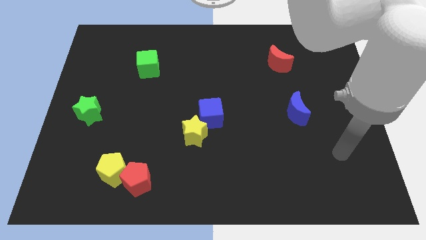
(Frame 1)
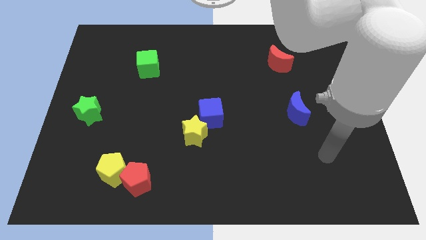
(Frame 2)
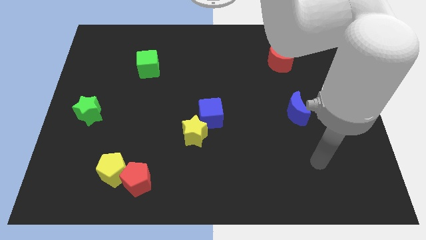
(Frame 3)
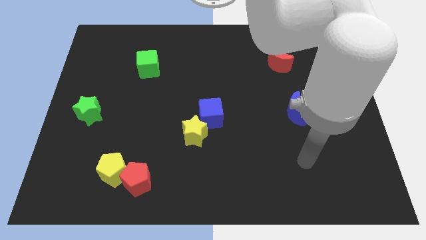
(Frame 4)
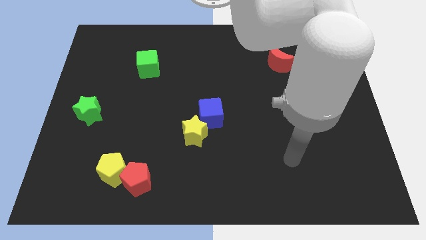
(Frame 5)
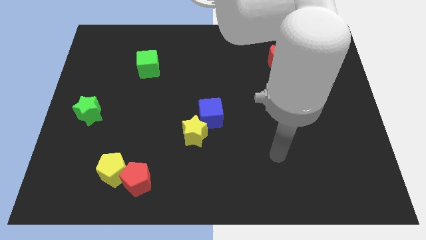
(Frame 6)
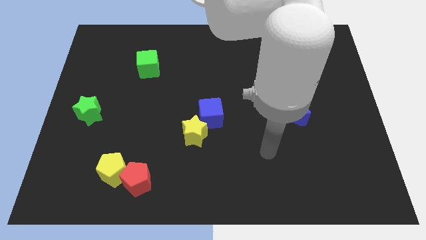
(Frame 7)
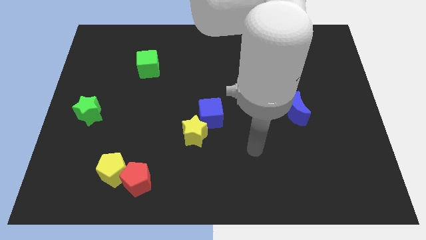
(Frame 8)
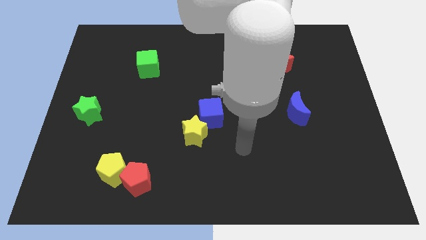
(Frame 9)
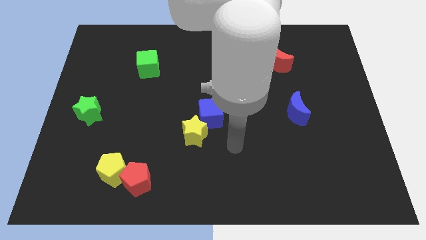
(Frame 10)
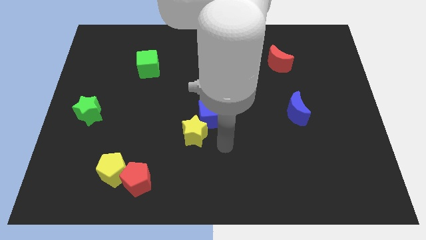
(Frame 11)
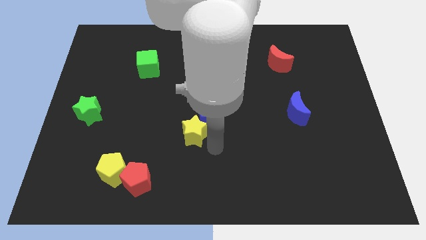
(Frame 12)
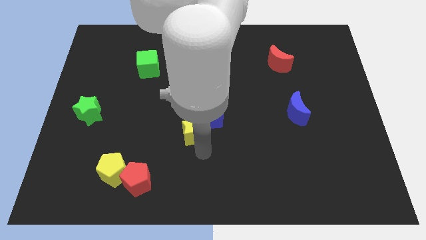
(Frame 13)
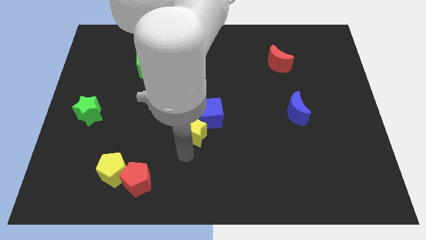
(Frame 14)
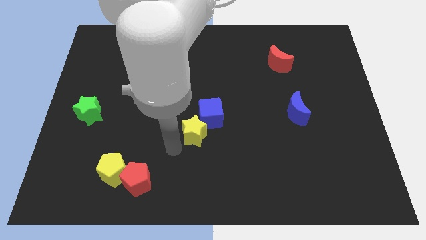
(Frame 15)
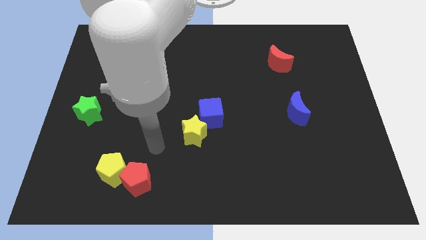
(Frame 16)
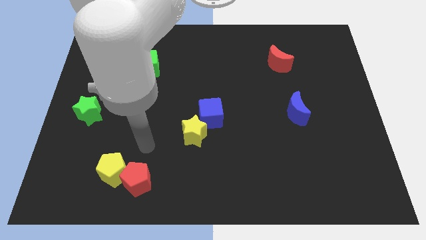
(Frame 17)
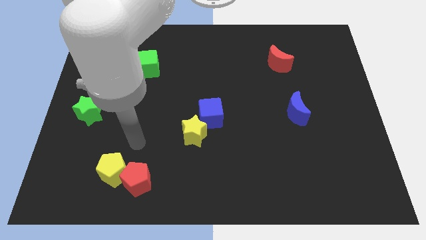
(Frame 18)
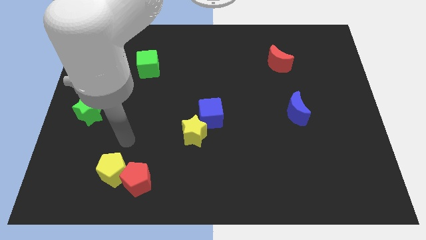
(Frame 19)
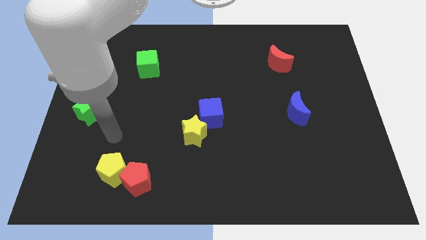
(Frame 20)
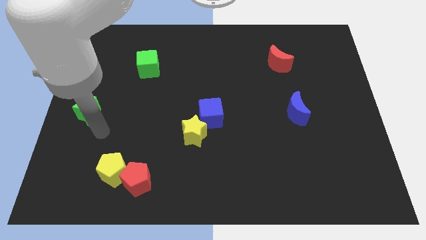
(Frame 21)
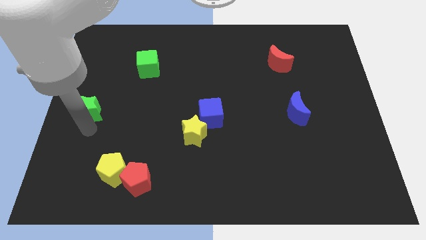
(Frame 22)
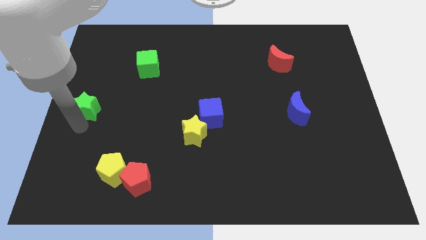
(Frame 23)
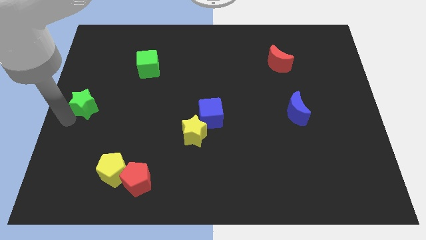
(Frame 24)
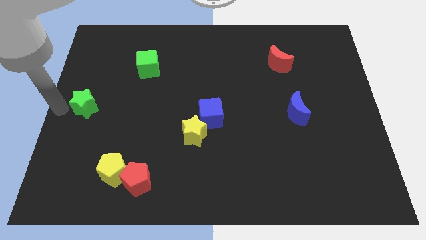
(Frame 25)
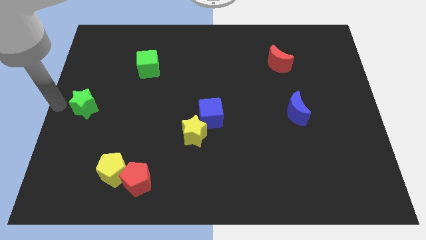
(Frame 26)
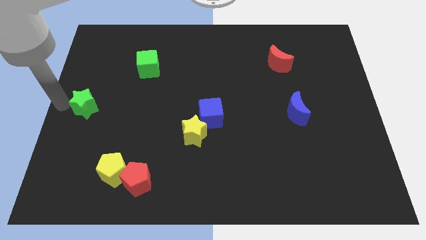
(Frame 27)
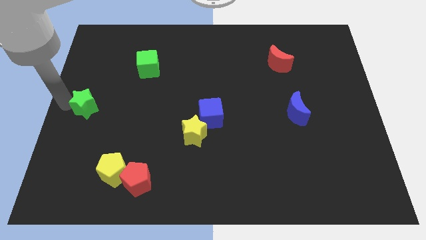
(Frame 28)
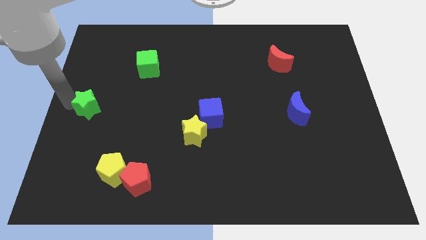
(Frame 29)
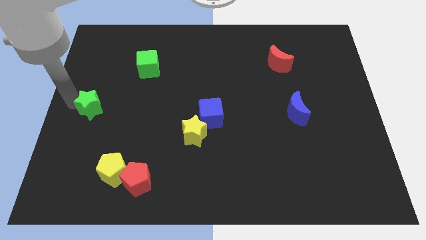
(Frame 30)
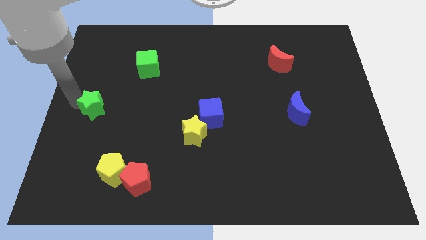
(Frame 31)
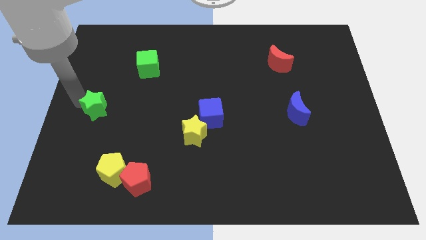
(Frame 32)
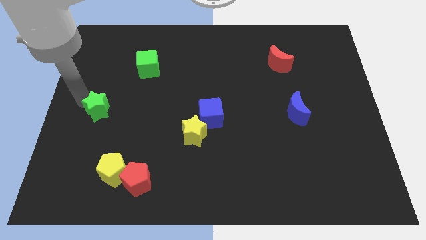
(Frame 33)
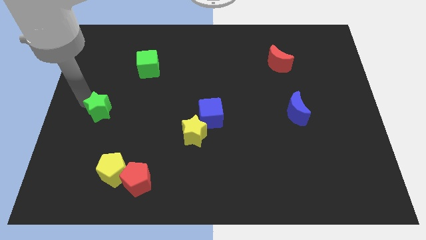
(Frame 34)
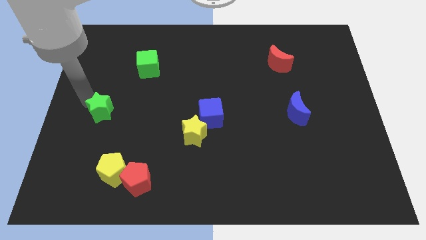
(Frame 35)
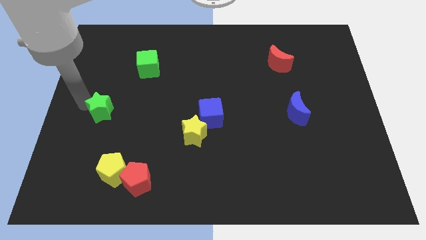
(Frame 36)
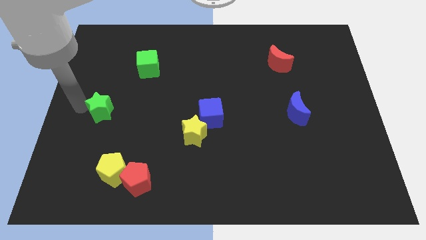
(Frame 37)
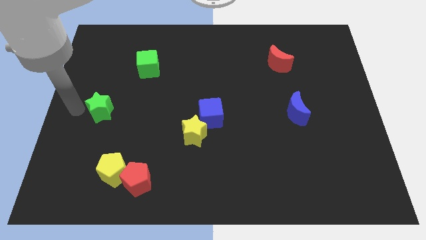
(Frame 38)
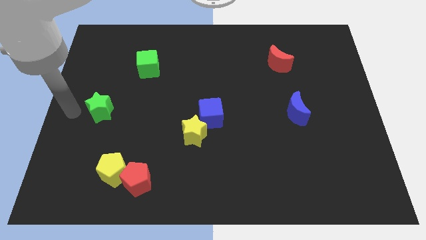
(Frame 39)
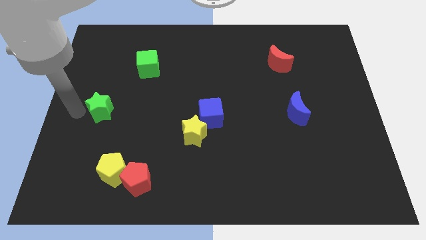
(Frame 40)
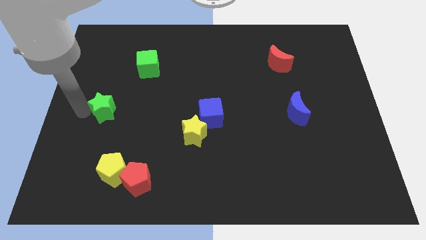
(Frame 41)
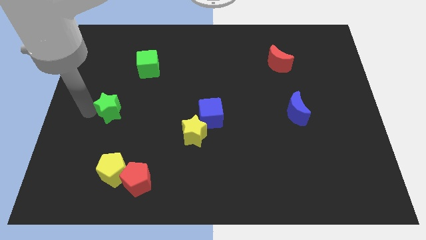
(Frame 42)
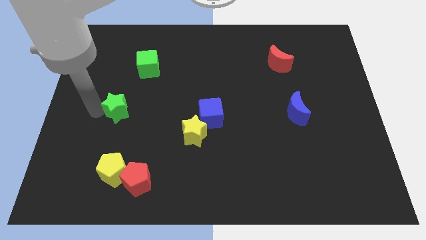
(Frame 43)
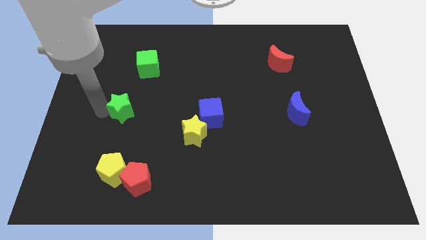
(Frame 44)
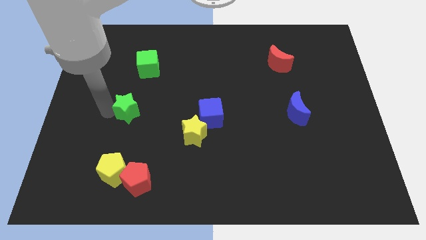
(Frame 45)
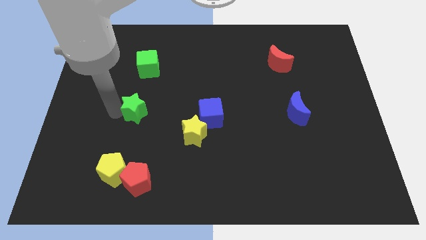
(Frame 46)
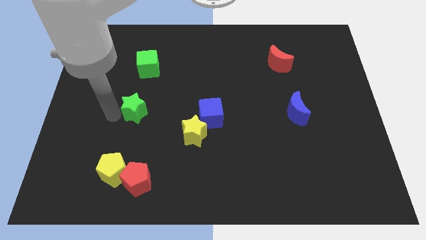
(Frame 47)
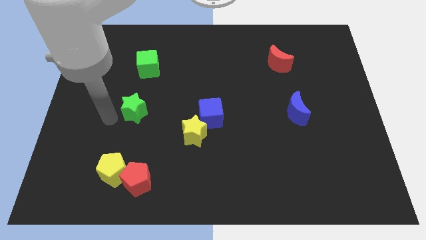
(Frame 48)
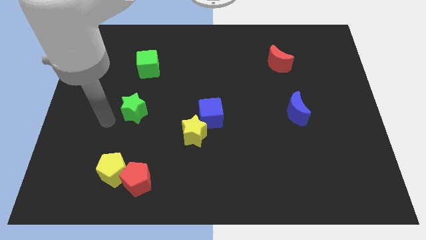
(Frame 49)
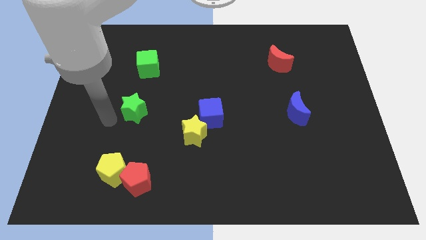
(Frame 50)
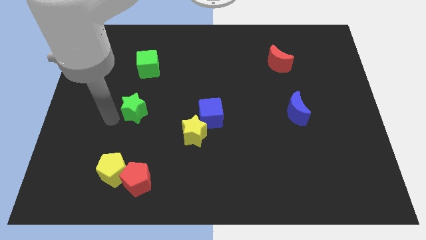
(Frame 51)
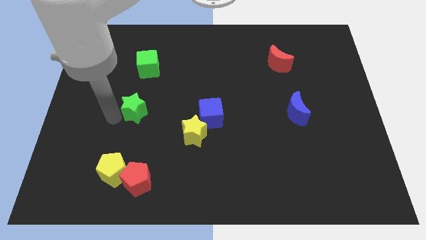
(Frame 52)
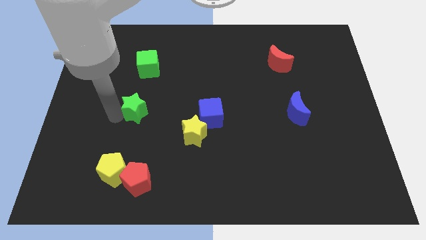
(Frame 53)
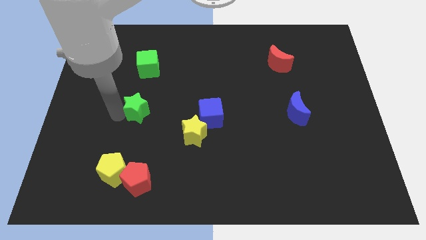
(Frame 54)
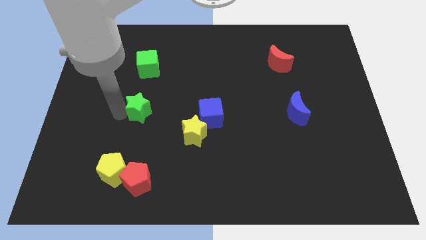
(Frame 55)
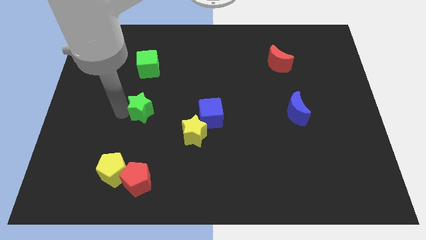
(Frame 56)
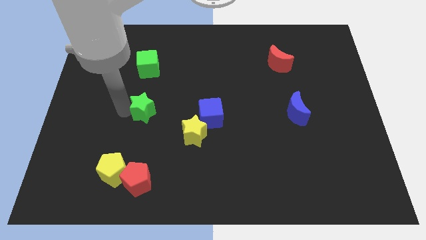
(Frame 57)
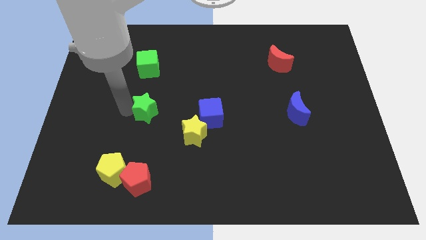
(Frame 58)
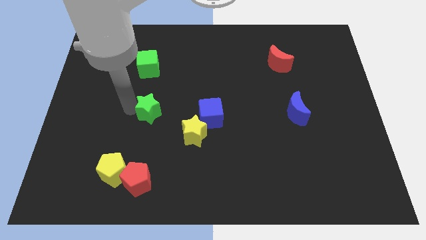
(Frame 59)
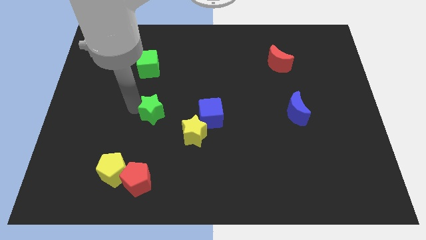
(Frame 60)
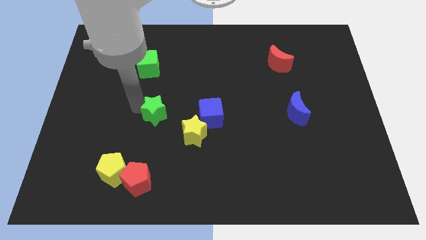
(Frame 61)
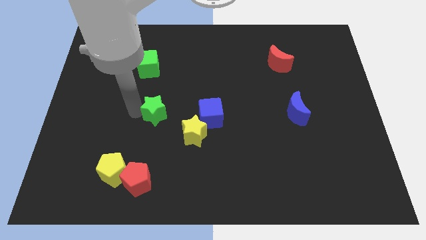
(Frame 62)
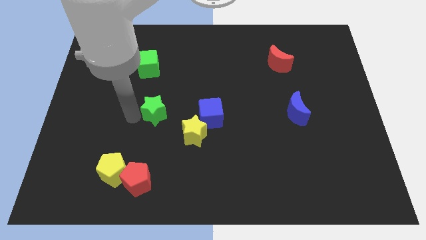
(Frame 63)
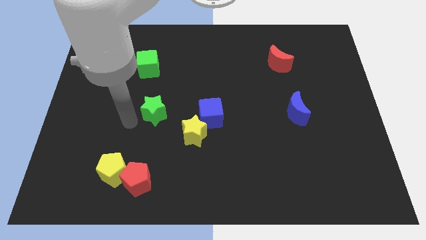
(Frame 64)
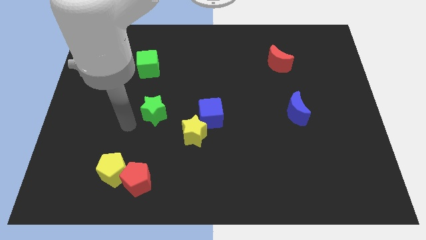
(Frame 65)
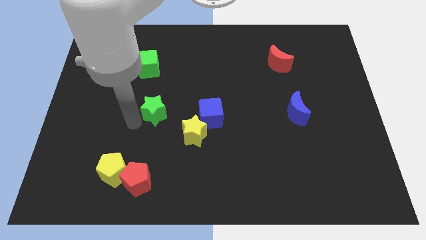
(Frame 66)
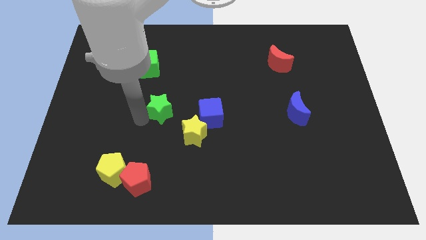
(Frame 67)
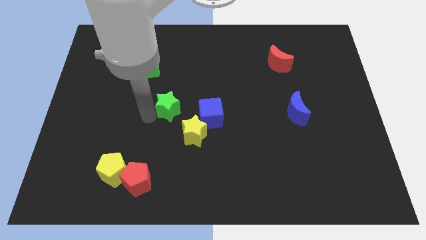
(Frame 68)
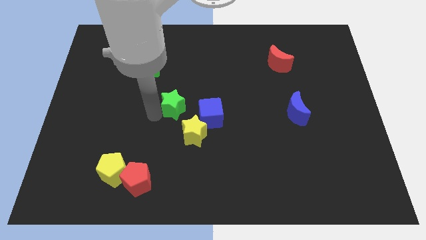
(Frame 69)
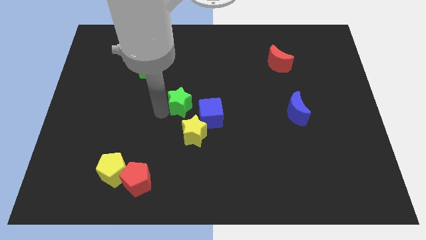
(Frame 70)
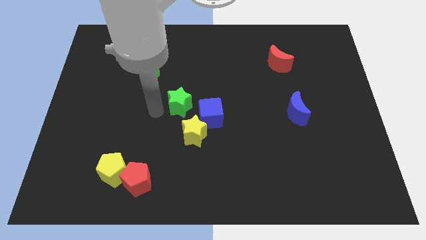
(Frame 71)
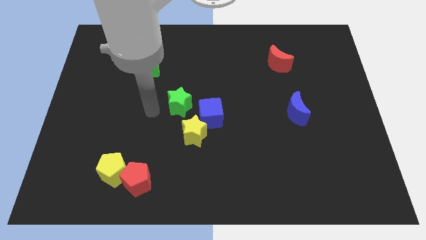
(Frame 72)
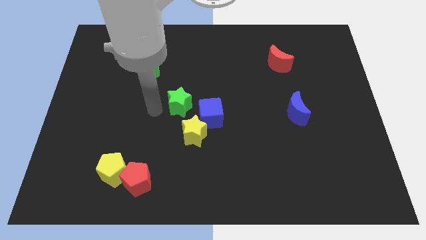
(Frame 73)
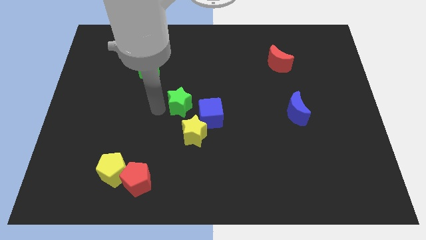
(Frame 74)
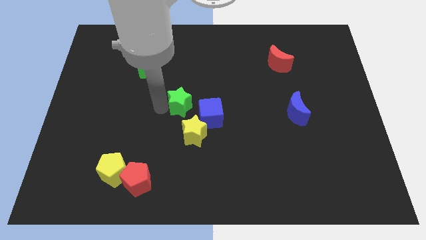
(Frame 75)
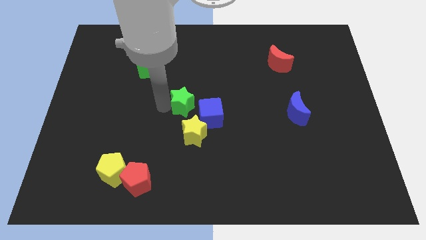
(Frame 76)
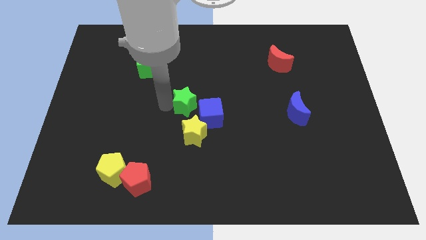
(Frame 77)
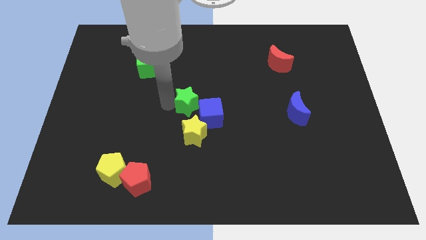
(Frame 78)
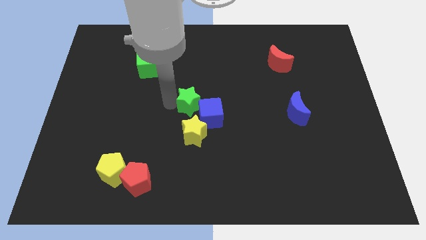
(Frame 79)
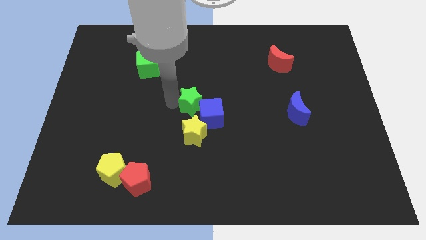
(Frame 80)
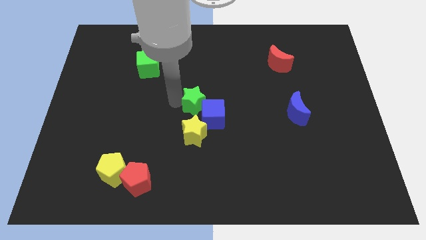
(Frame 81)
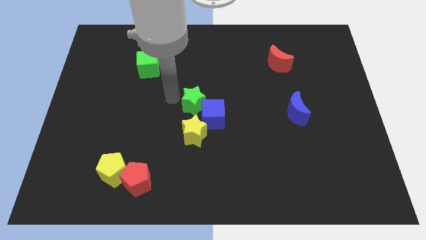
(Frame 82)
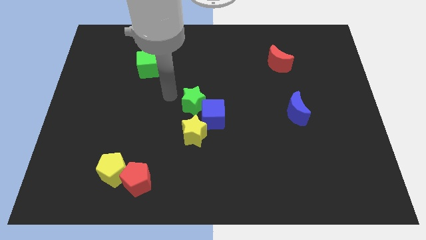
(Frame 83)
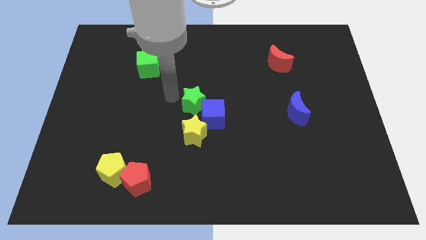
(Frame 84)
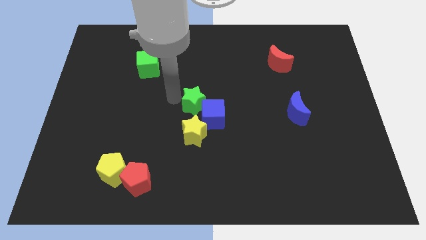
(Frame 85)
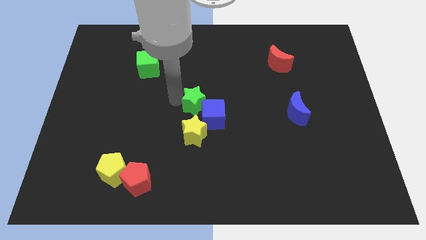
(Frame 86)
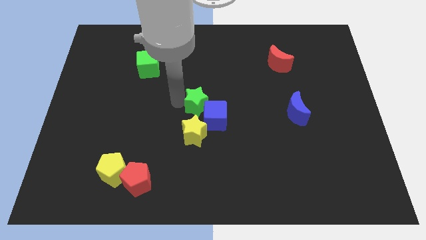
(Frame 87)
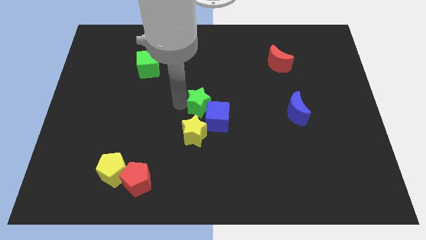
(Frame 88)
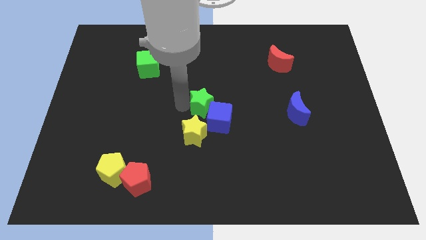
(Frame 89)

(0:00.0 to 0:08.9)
push the green star to the top right of the yellow star
